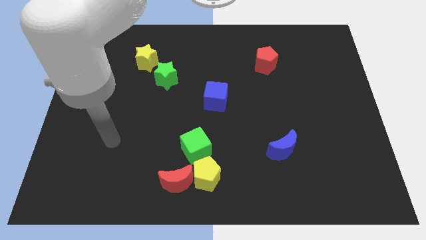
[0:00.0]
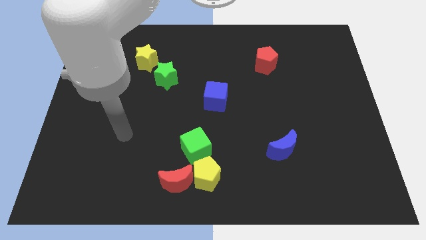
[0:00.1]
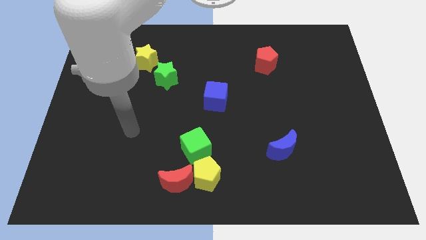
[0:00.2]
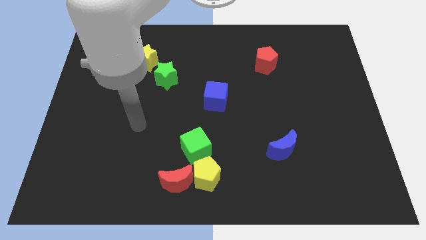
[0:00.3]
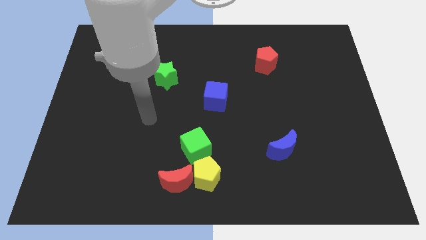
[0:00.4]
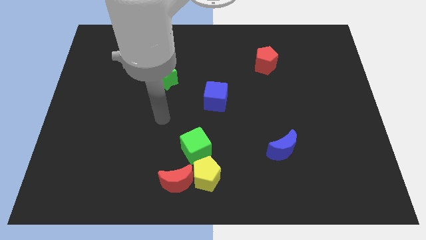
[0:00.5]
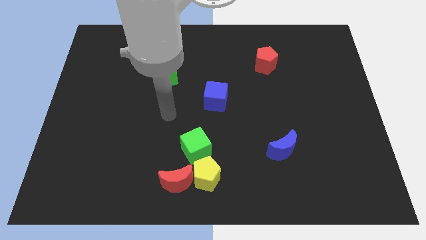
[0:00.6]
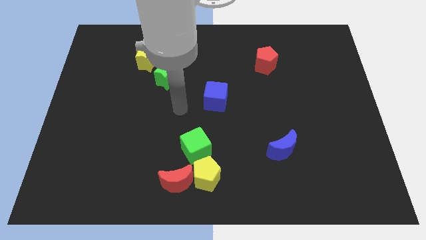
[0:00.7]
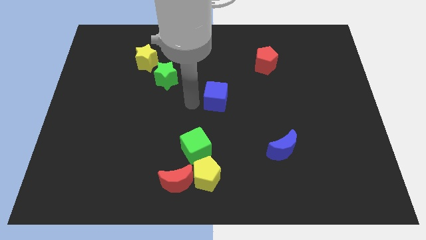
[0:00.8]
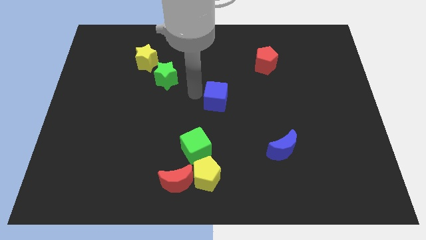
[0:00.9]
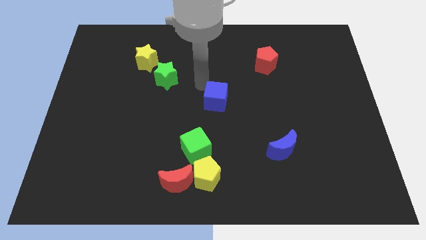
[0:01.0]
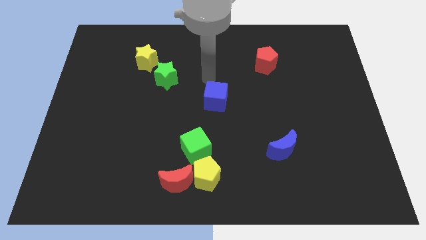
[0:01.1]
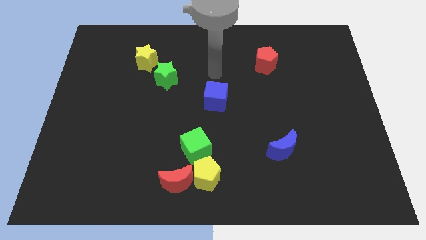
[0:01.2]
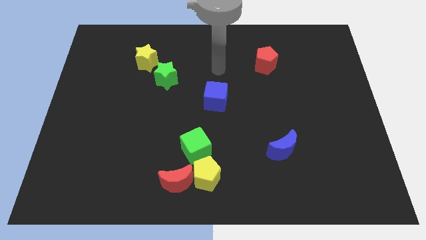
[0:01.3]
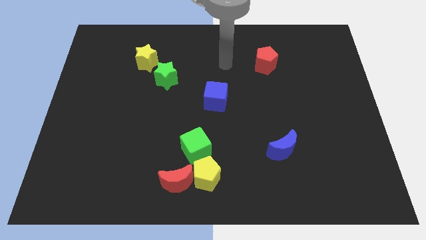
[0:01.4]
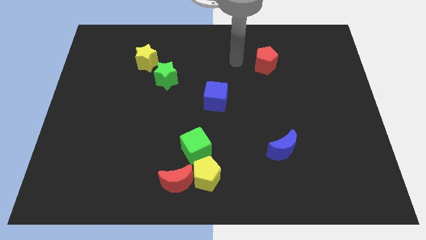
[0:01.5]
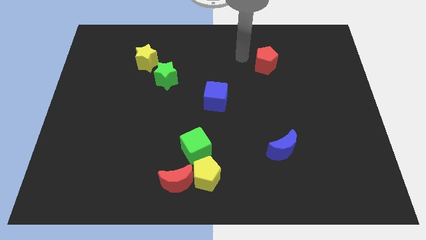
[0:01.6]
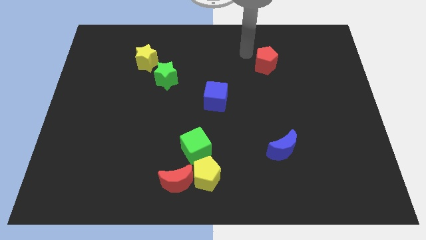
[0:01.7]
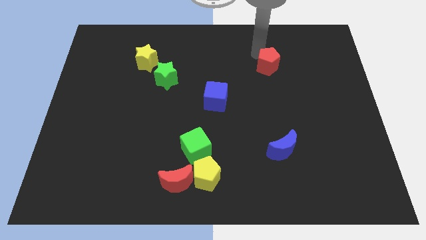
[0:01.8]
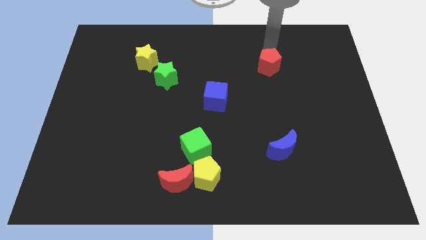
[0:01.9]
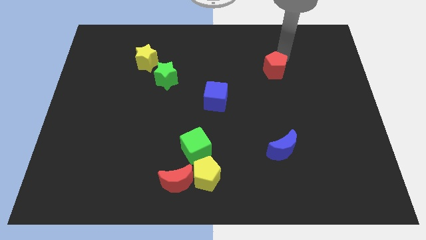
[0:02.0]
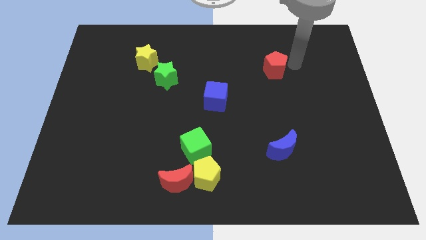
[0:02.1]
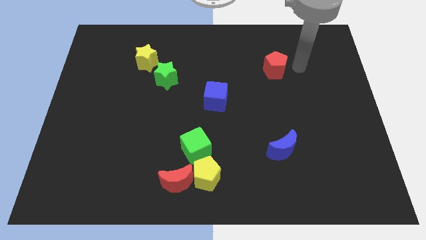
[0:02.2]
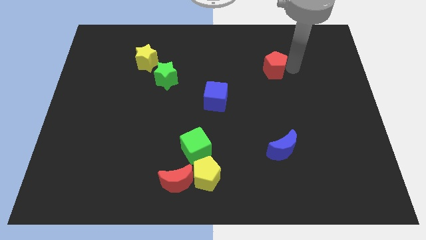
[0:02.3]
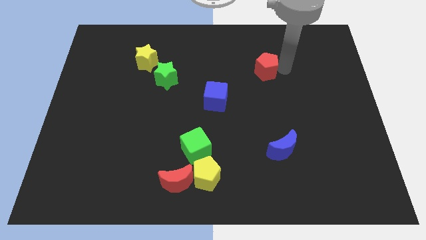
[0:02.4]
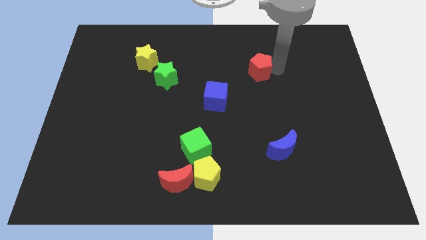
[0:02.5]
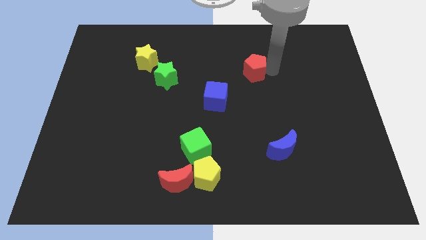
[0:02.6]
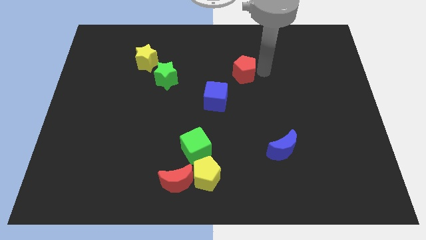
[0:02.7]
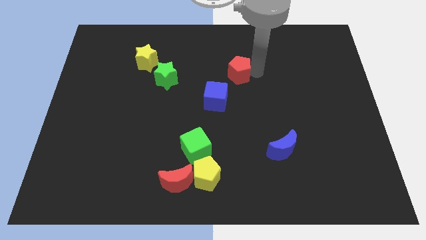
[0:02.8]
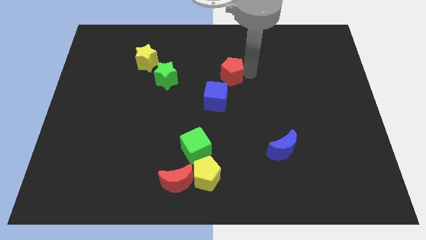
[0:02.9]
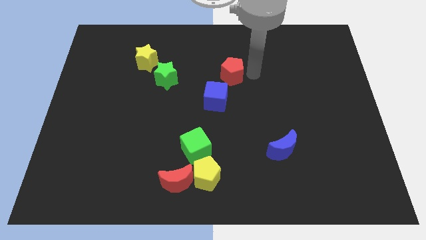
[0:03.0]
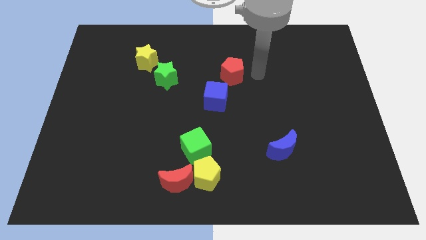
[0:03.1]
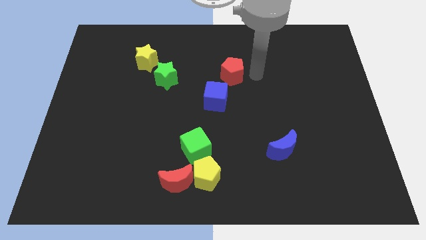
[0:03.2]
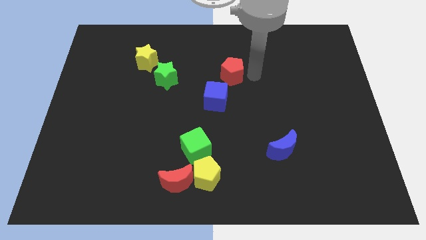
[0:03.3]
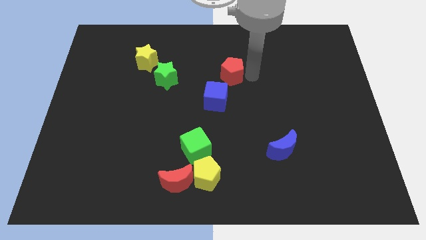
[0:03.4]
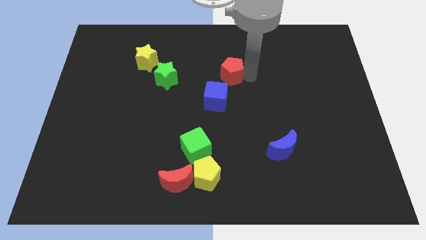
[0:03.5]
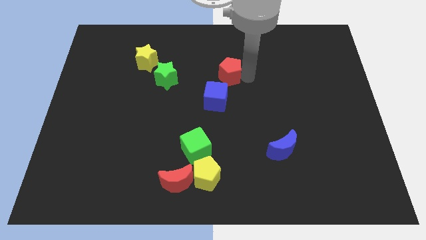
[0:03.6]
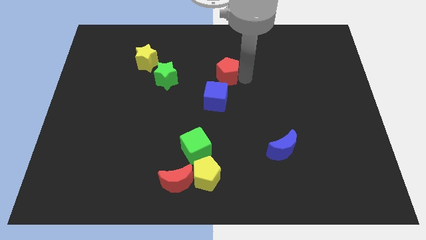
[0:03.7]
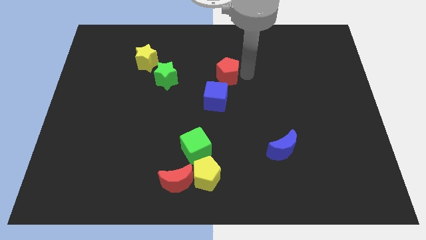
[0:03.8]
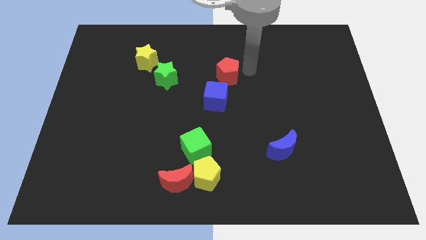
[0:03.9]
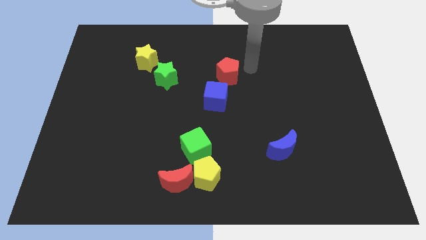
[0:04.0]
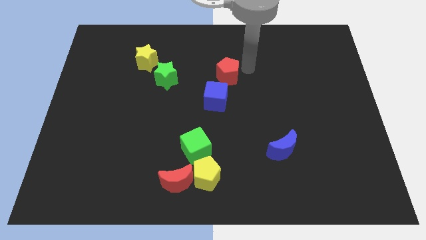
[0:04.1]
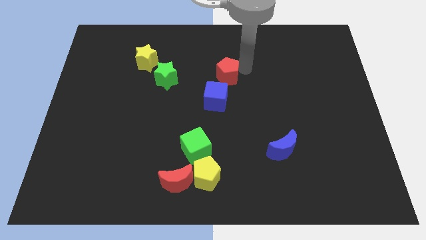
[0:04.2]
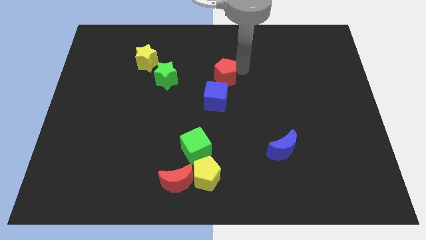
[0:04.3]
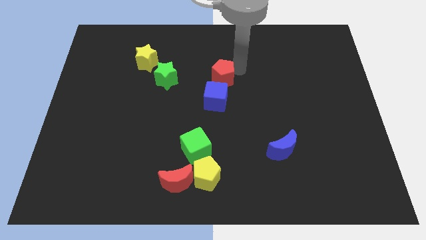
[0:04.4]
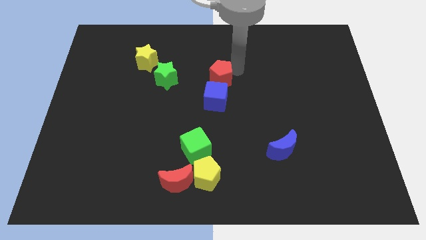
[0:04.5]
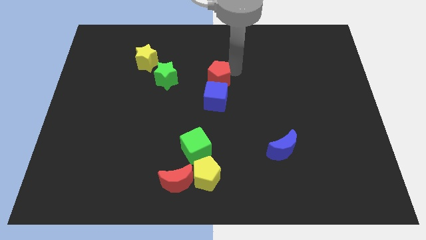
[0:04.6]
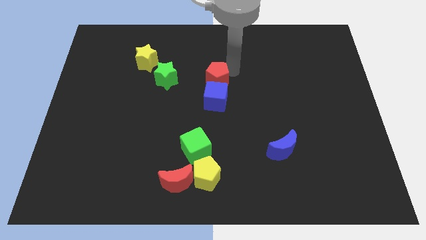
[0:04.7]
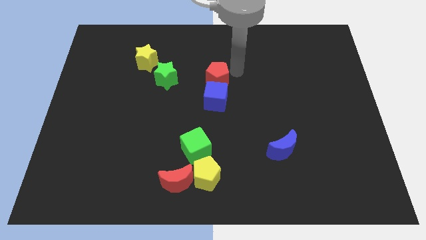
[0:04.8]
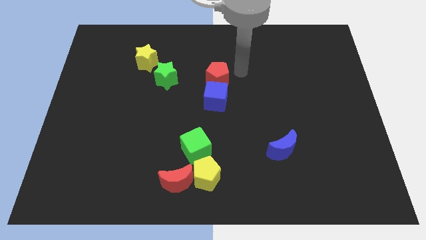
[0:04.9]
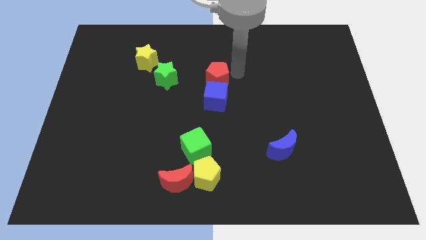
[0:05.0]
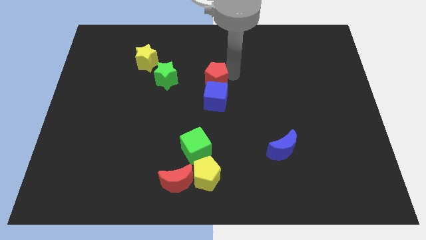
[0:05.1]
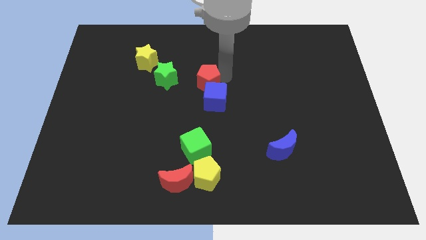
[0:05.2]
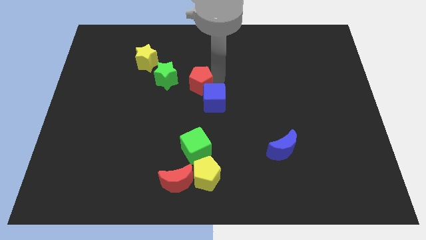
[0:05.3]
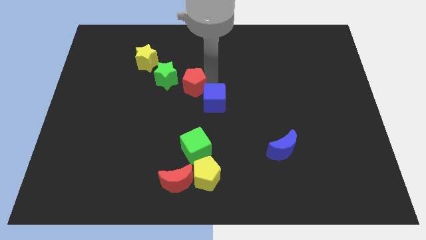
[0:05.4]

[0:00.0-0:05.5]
slide the red pentagon to the bottom right side of the green star
